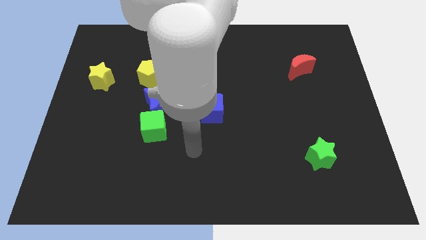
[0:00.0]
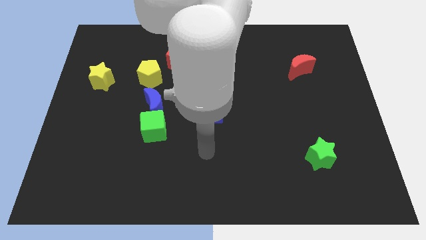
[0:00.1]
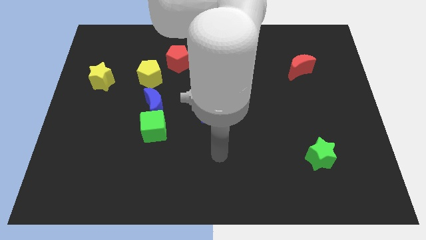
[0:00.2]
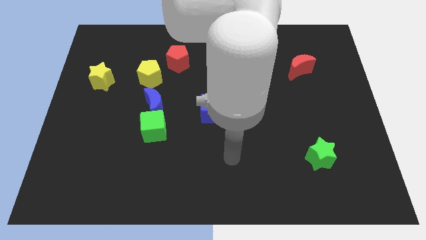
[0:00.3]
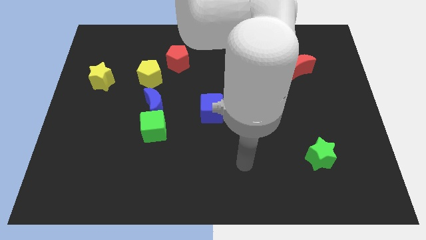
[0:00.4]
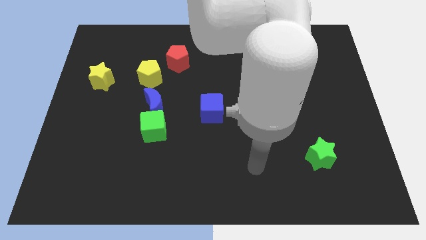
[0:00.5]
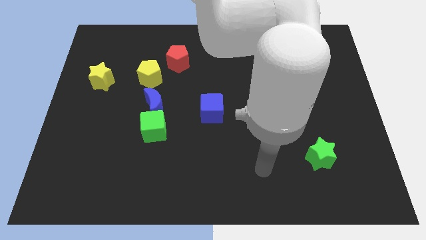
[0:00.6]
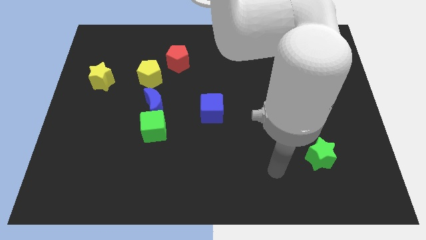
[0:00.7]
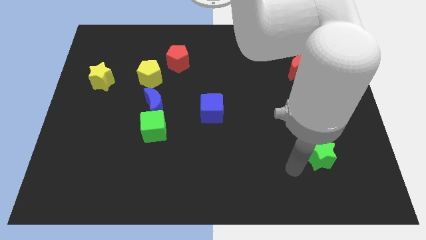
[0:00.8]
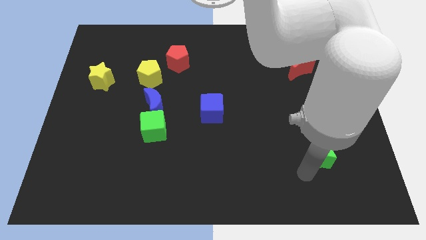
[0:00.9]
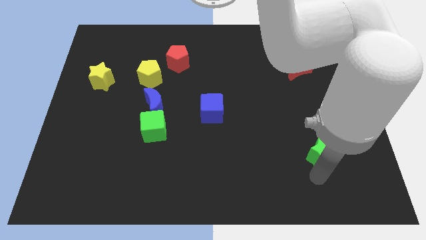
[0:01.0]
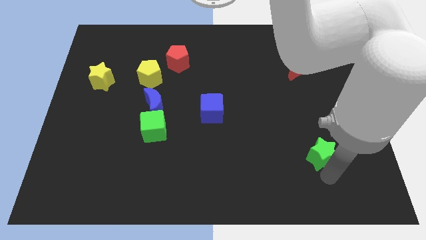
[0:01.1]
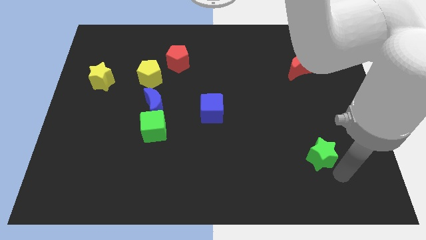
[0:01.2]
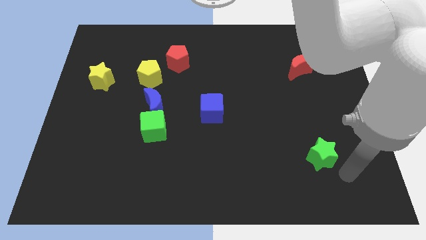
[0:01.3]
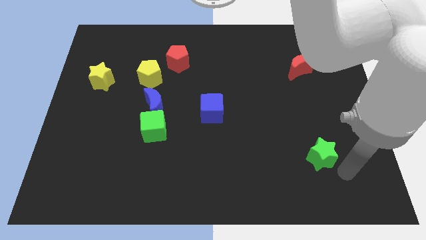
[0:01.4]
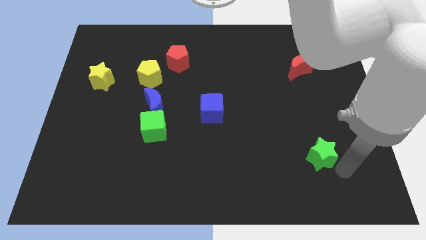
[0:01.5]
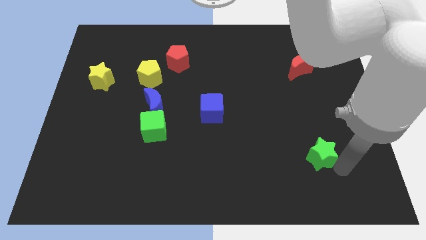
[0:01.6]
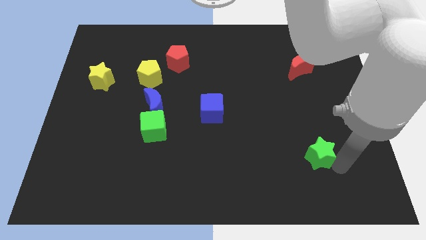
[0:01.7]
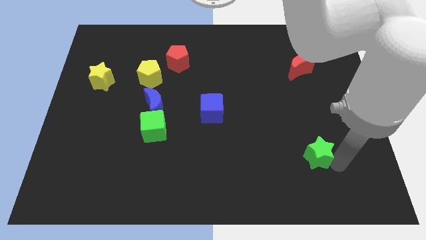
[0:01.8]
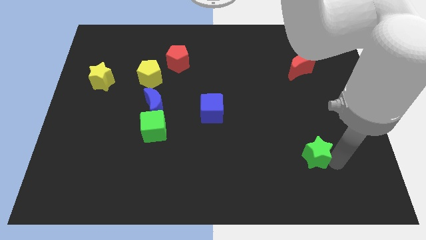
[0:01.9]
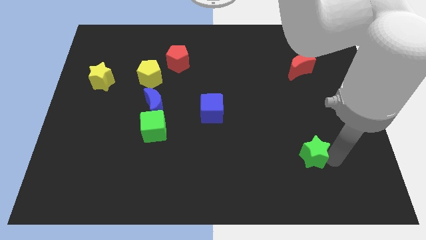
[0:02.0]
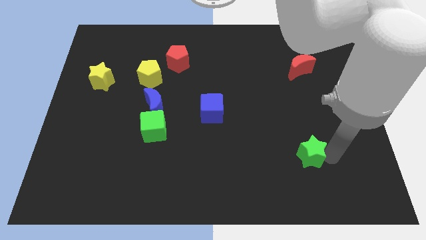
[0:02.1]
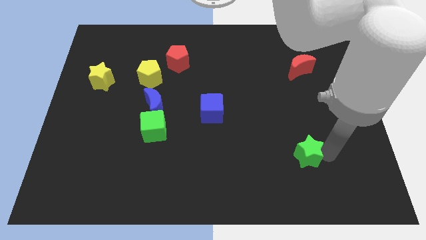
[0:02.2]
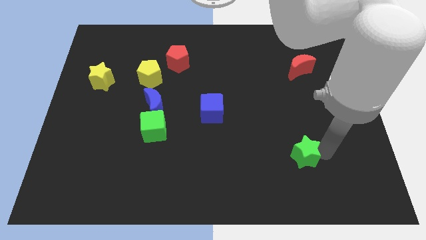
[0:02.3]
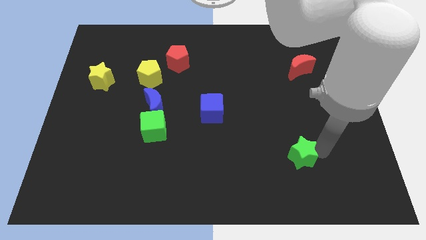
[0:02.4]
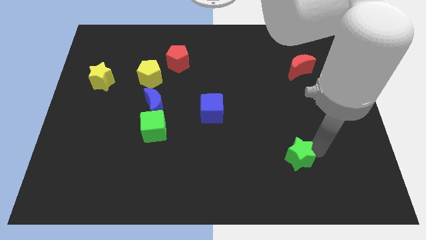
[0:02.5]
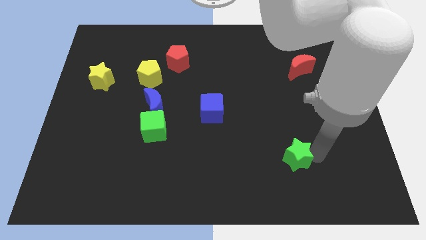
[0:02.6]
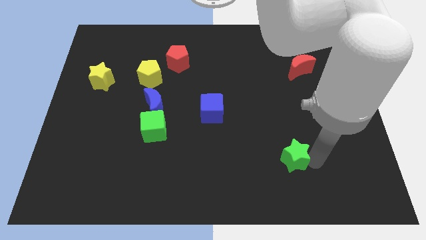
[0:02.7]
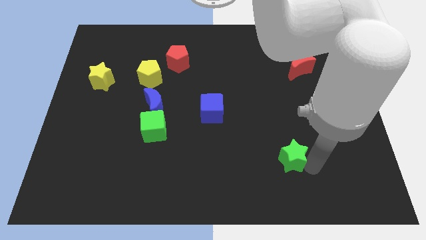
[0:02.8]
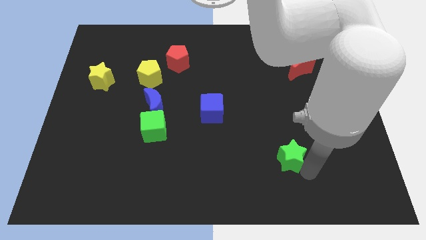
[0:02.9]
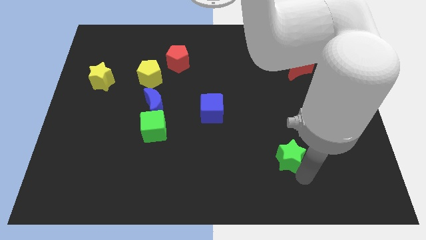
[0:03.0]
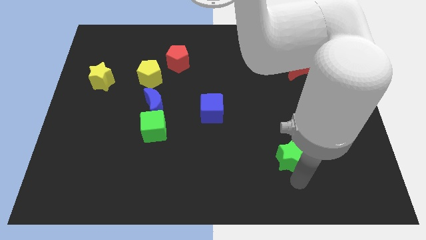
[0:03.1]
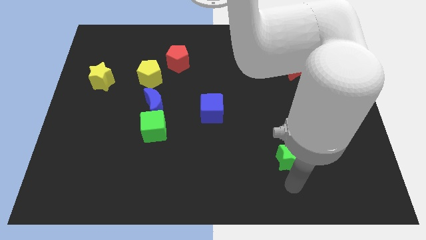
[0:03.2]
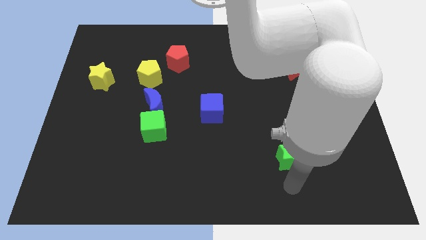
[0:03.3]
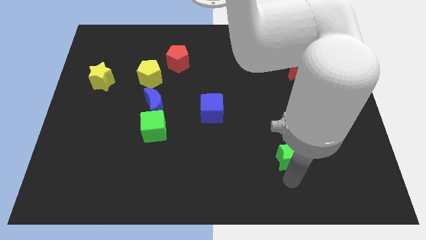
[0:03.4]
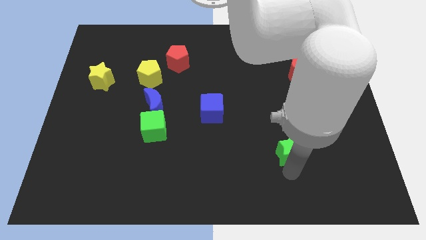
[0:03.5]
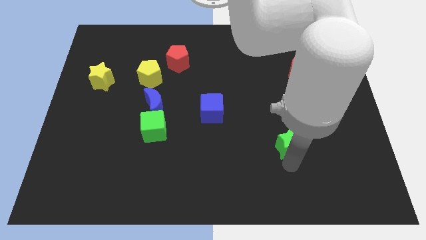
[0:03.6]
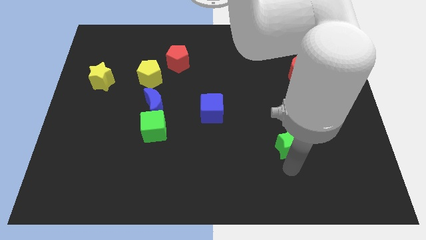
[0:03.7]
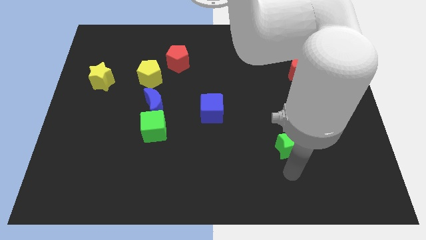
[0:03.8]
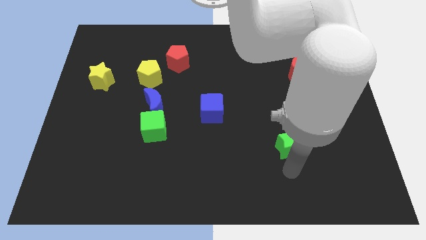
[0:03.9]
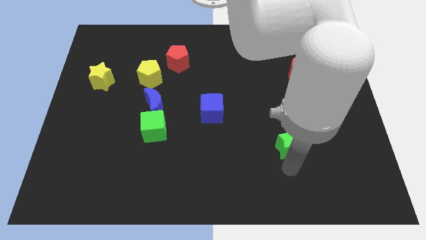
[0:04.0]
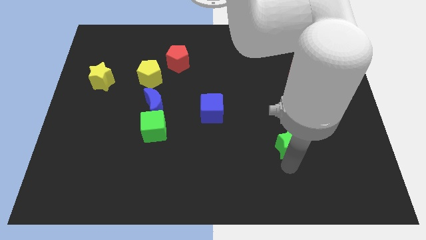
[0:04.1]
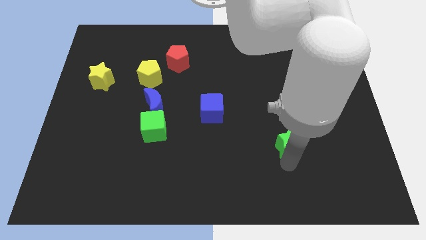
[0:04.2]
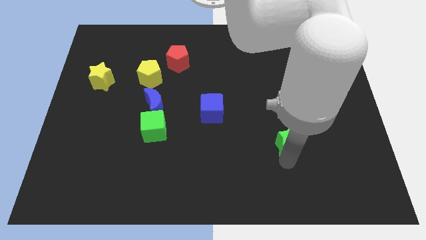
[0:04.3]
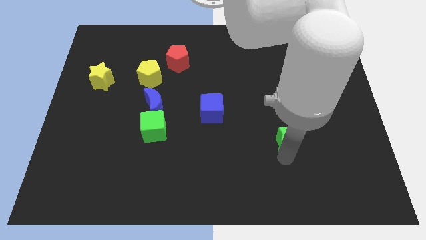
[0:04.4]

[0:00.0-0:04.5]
push the green star a little bit diagonally upwards and left

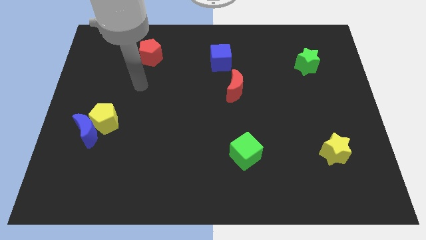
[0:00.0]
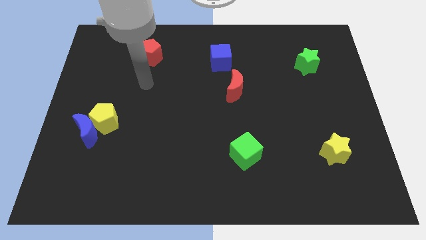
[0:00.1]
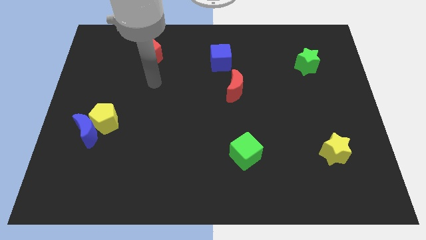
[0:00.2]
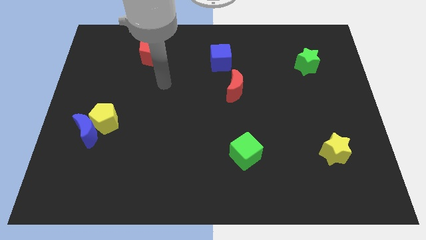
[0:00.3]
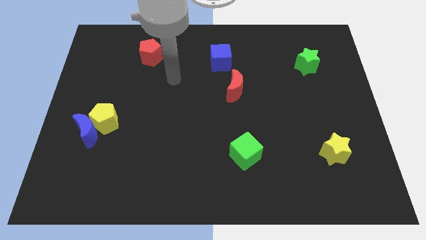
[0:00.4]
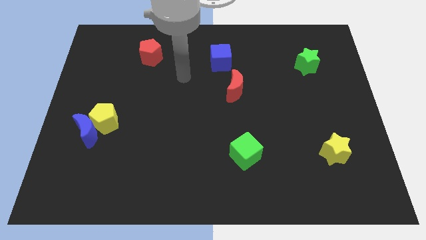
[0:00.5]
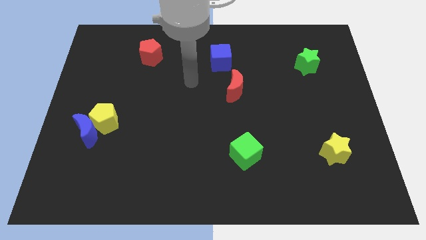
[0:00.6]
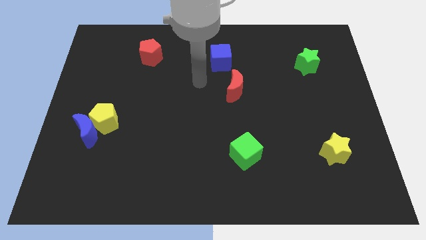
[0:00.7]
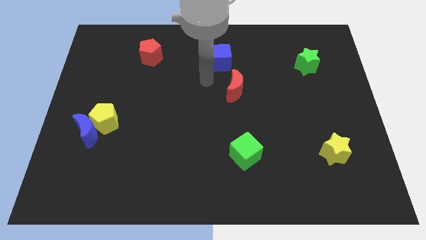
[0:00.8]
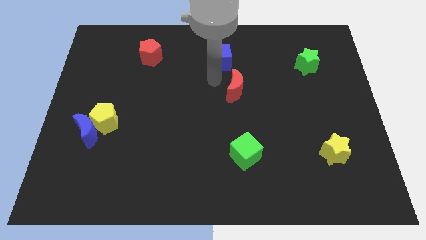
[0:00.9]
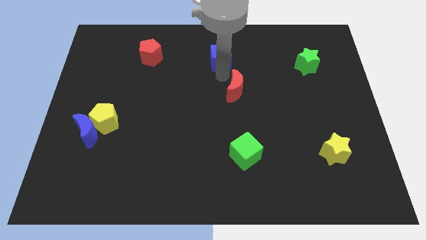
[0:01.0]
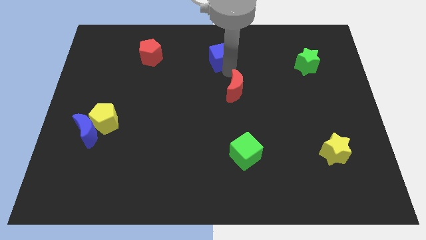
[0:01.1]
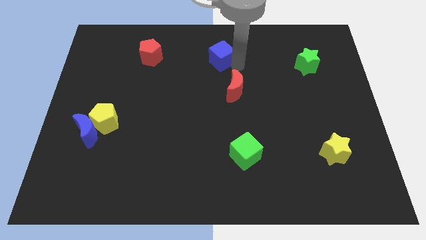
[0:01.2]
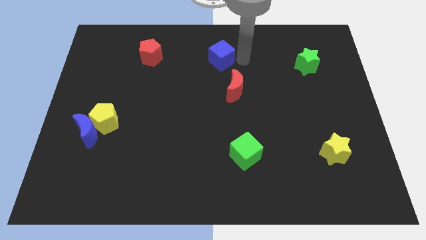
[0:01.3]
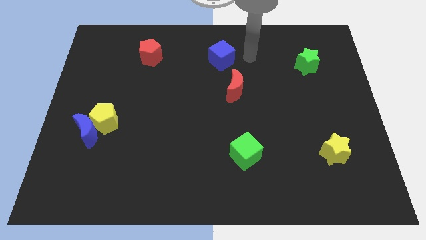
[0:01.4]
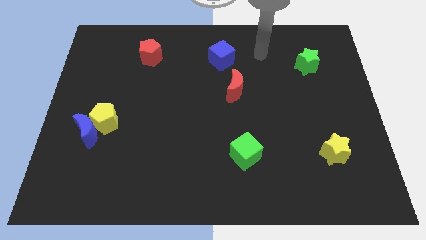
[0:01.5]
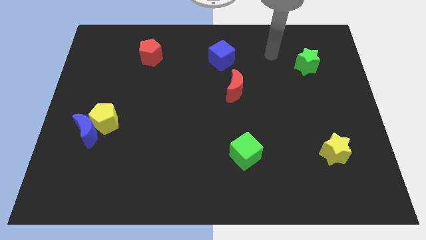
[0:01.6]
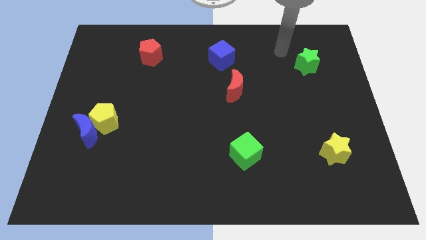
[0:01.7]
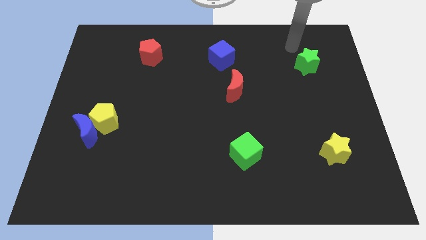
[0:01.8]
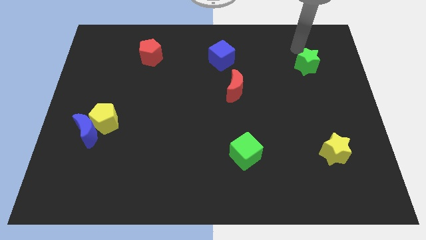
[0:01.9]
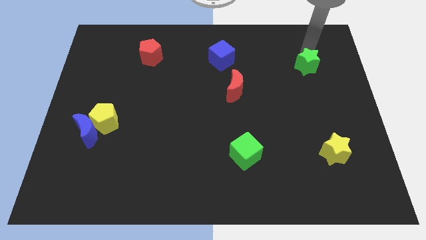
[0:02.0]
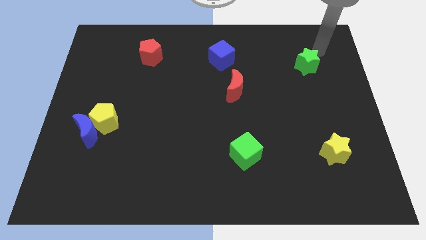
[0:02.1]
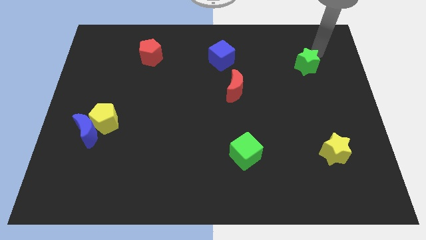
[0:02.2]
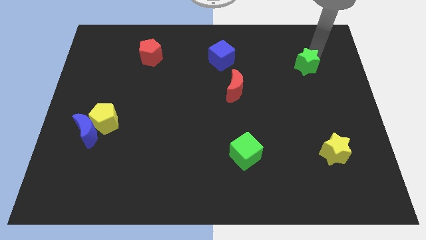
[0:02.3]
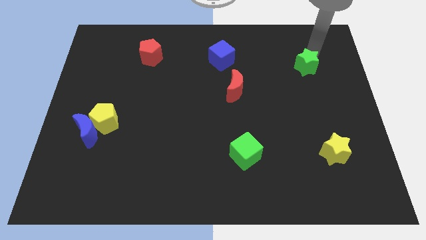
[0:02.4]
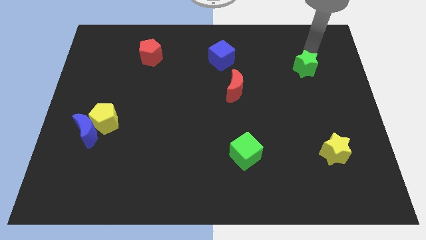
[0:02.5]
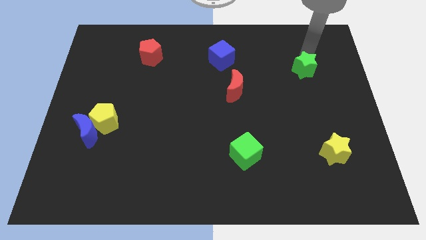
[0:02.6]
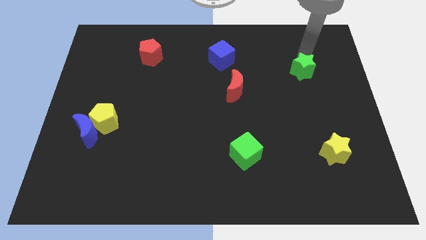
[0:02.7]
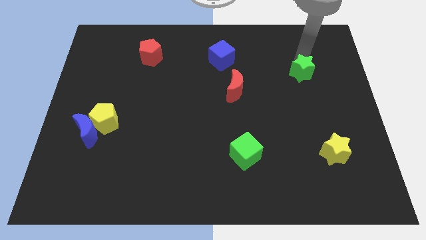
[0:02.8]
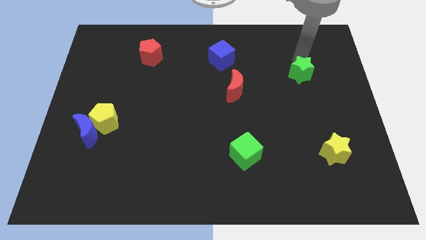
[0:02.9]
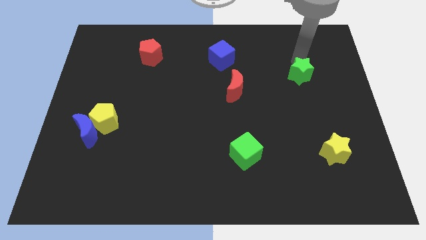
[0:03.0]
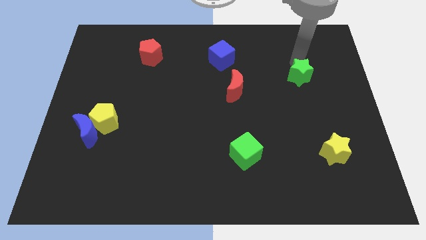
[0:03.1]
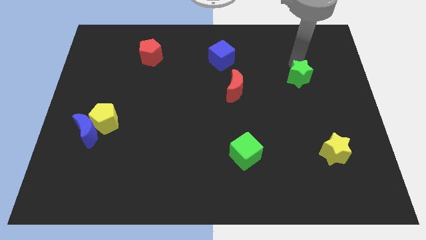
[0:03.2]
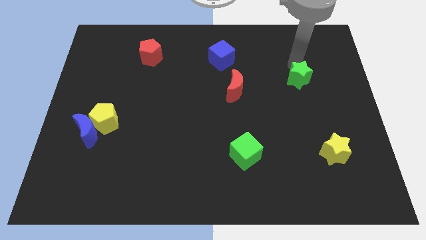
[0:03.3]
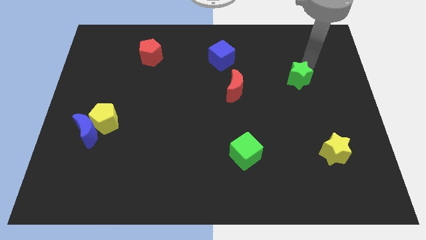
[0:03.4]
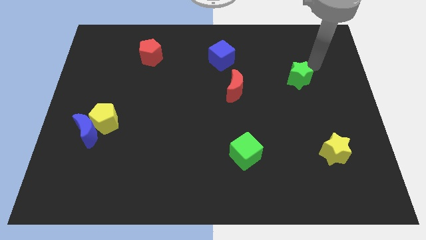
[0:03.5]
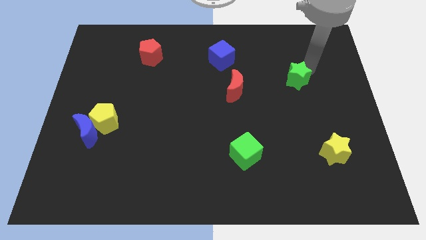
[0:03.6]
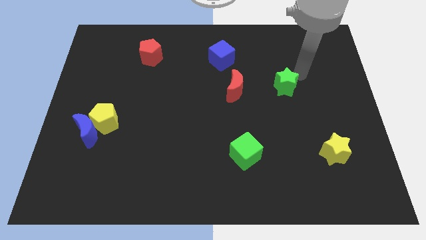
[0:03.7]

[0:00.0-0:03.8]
push the green star diagonally downwards and to the left a little bit
